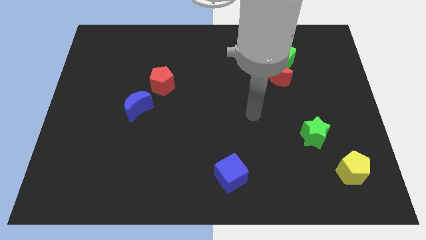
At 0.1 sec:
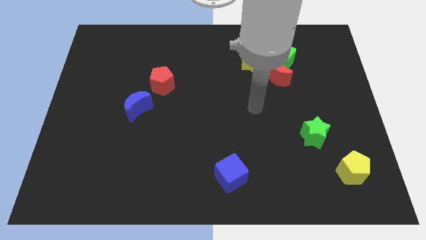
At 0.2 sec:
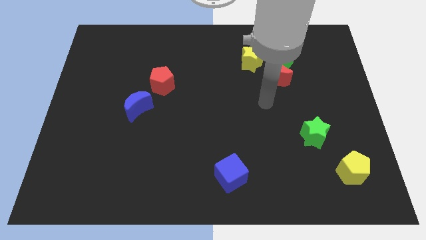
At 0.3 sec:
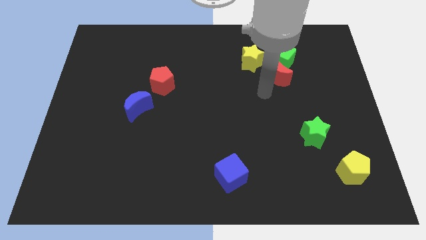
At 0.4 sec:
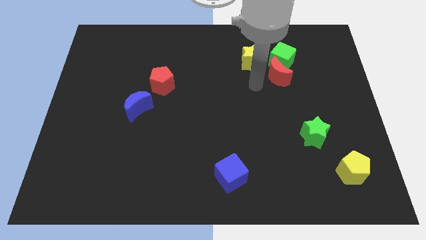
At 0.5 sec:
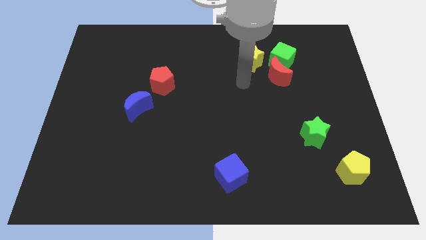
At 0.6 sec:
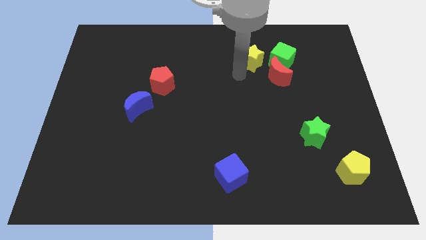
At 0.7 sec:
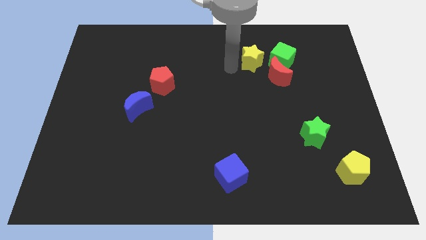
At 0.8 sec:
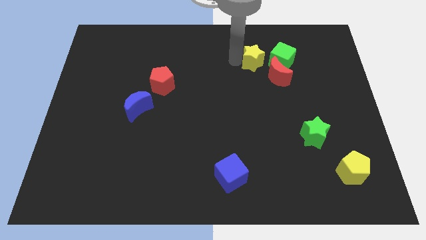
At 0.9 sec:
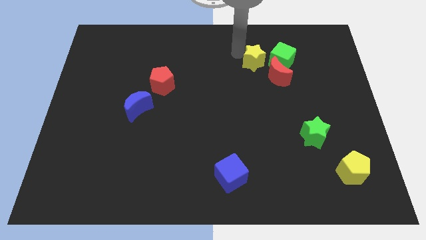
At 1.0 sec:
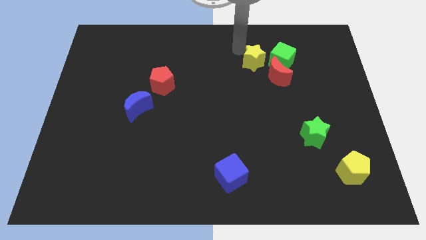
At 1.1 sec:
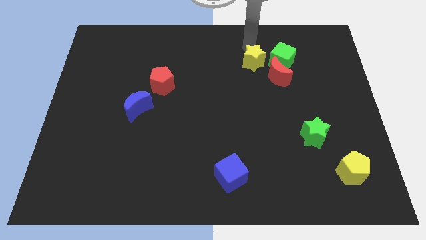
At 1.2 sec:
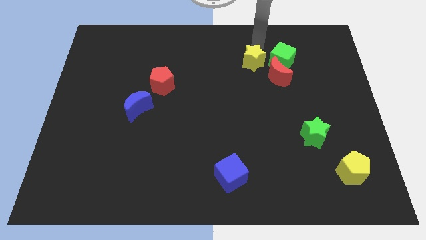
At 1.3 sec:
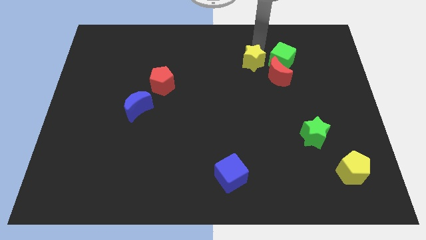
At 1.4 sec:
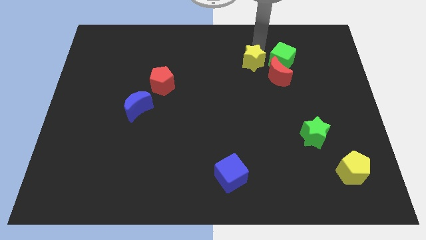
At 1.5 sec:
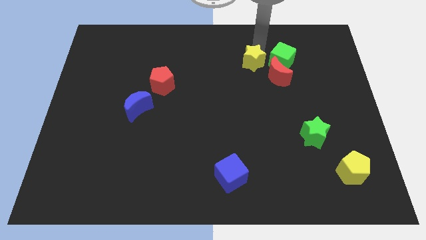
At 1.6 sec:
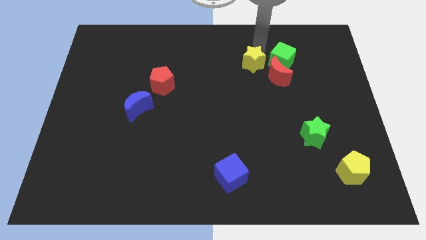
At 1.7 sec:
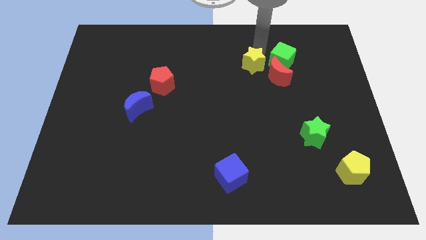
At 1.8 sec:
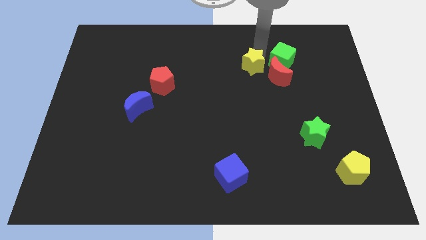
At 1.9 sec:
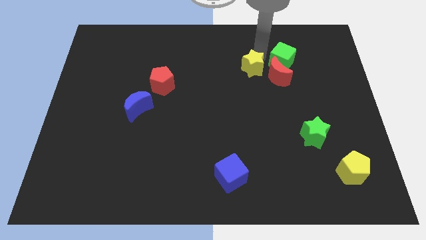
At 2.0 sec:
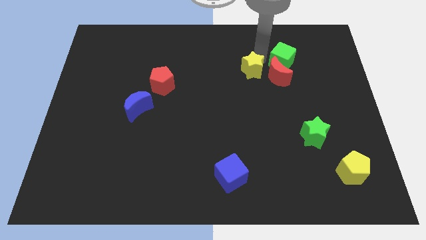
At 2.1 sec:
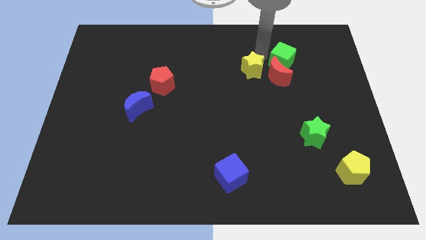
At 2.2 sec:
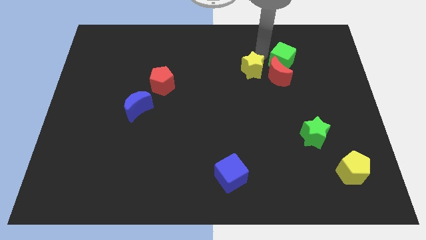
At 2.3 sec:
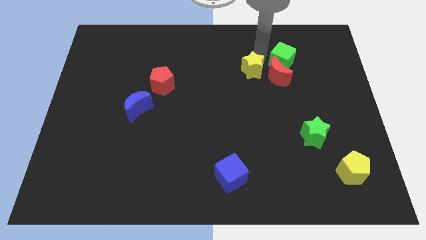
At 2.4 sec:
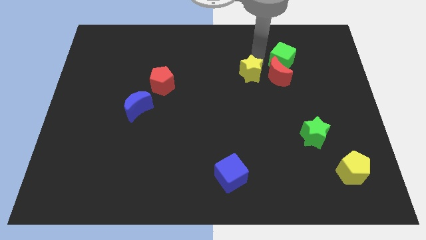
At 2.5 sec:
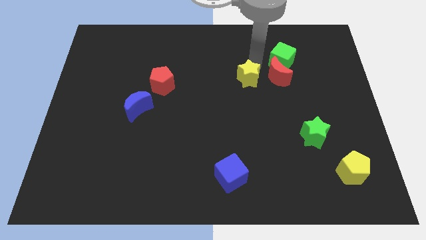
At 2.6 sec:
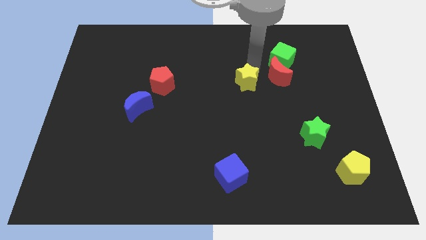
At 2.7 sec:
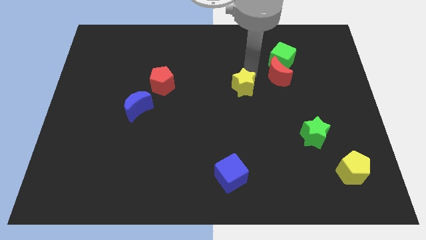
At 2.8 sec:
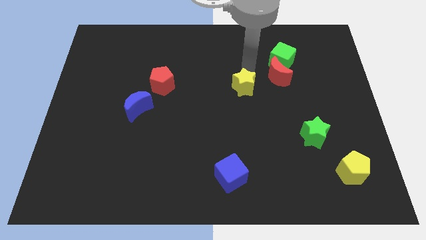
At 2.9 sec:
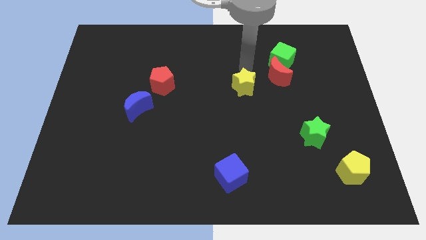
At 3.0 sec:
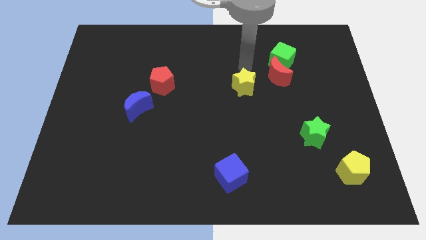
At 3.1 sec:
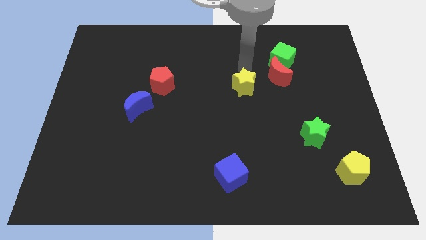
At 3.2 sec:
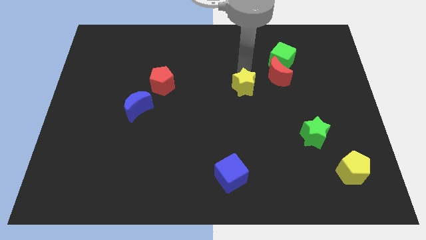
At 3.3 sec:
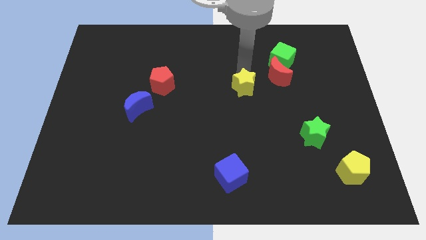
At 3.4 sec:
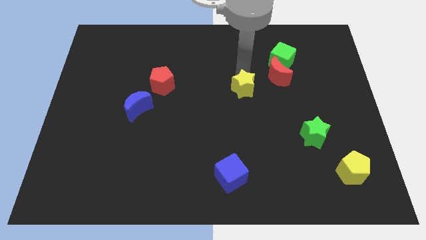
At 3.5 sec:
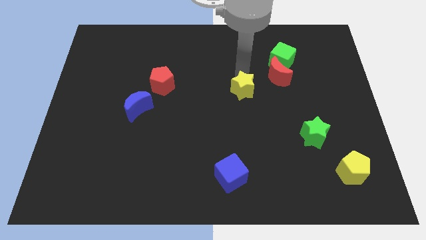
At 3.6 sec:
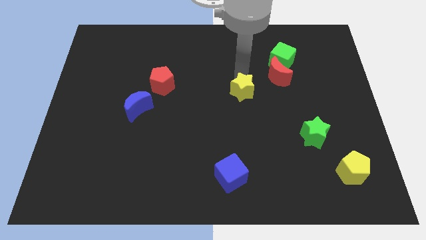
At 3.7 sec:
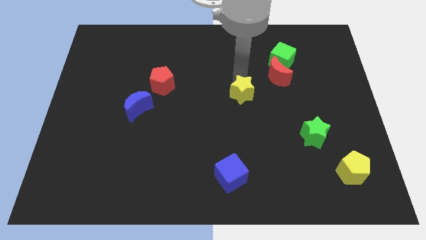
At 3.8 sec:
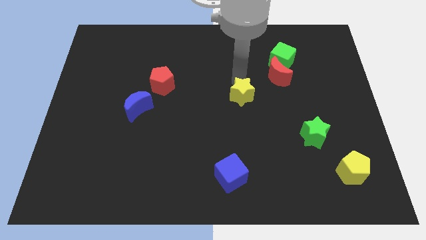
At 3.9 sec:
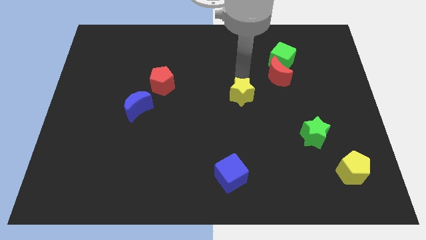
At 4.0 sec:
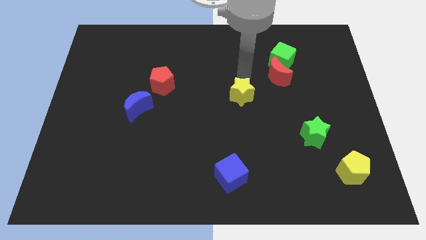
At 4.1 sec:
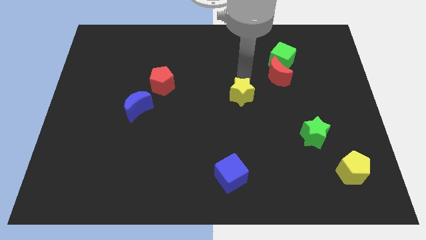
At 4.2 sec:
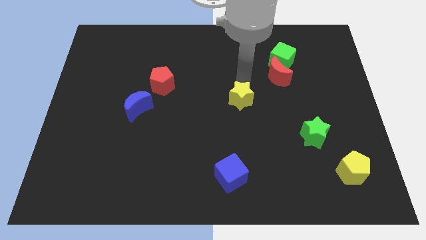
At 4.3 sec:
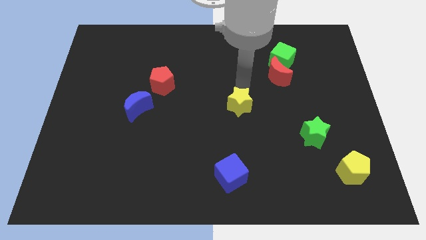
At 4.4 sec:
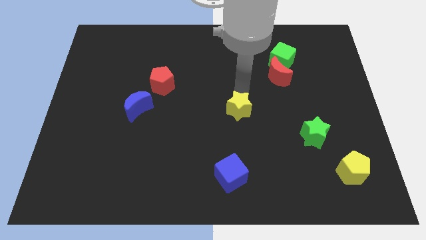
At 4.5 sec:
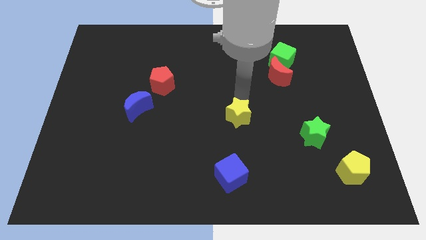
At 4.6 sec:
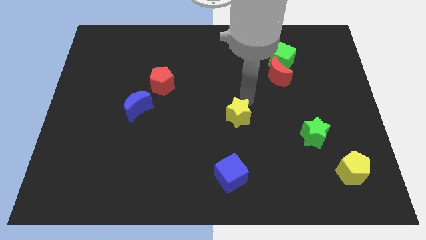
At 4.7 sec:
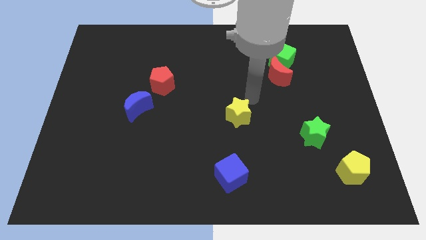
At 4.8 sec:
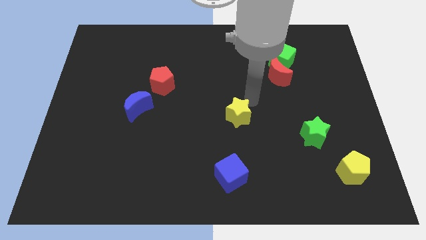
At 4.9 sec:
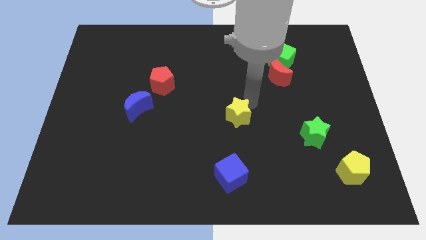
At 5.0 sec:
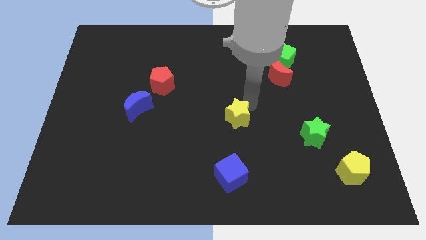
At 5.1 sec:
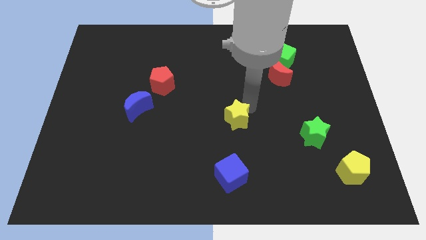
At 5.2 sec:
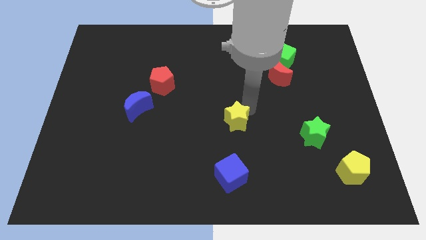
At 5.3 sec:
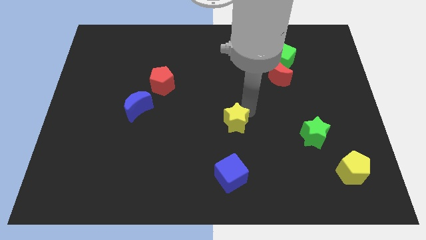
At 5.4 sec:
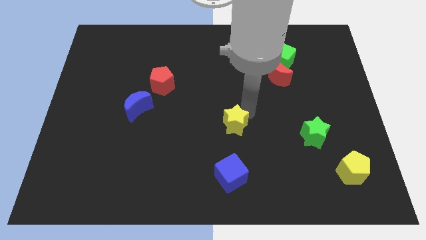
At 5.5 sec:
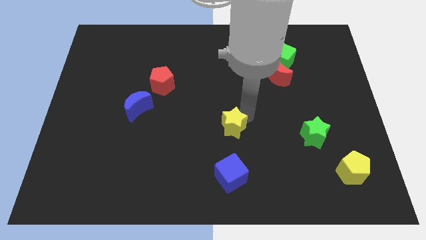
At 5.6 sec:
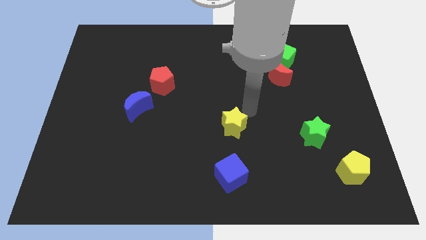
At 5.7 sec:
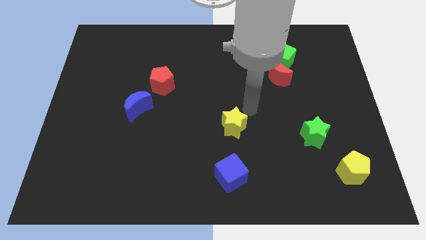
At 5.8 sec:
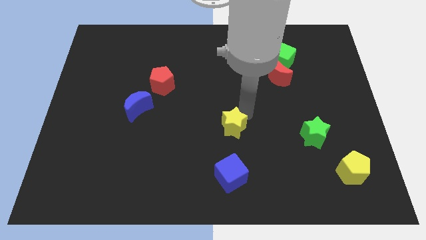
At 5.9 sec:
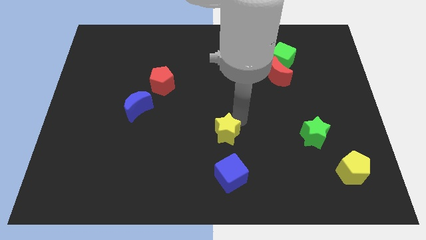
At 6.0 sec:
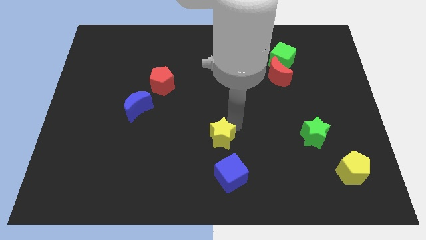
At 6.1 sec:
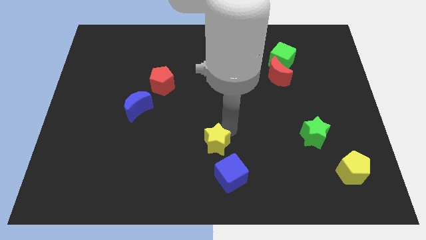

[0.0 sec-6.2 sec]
put the yellow star diagonally up and to the left of the blue cube

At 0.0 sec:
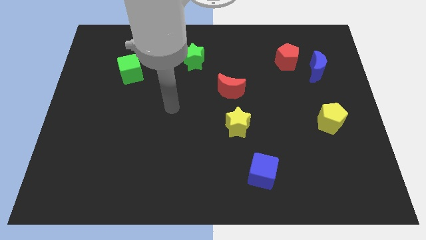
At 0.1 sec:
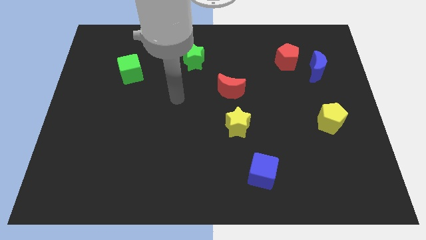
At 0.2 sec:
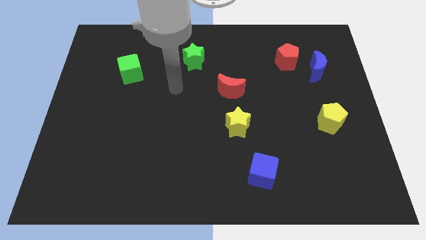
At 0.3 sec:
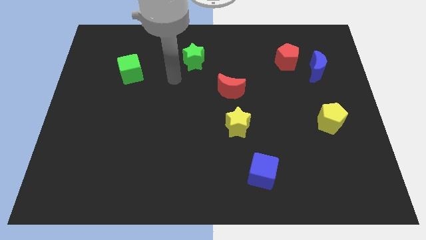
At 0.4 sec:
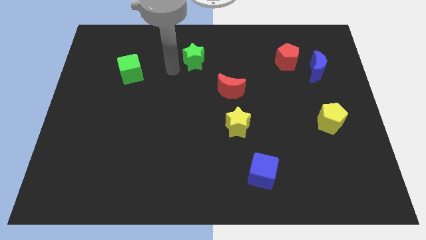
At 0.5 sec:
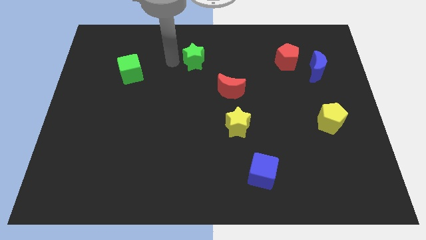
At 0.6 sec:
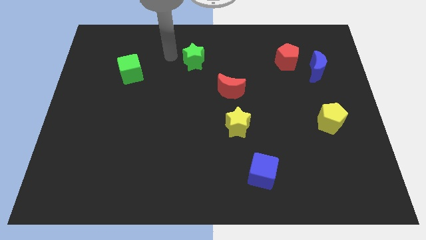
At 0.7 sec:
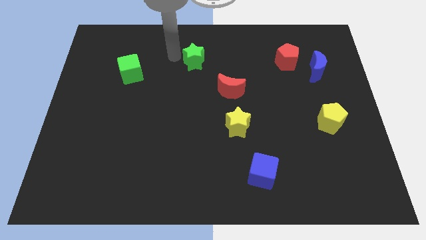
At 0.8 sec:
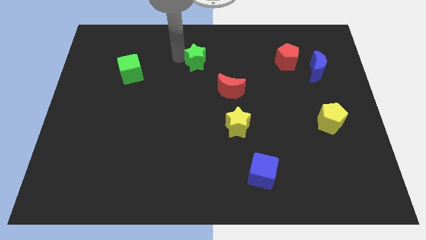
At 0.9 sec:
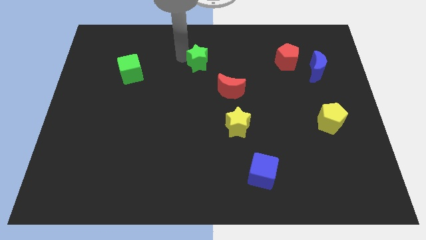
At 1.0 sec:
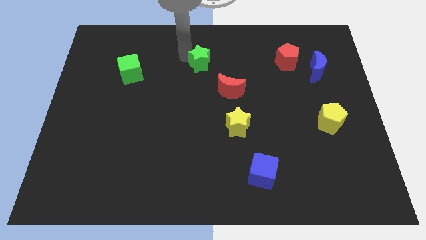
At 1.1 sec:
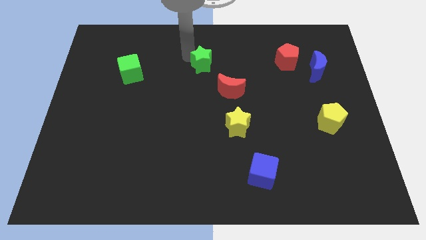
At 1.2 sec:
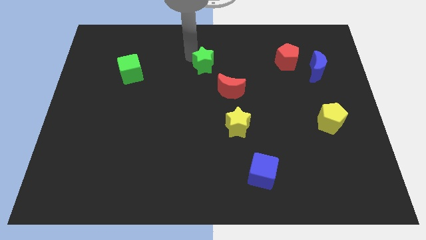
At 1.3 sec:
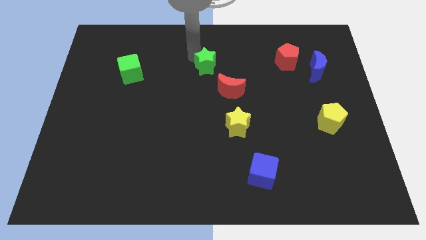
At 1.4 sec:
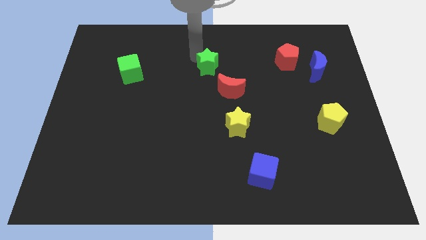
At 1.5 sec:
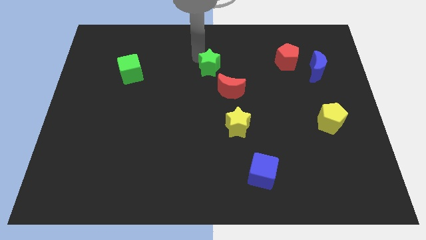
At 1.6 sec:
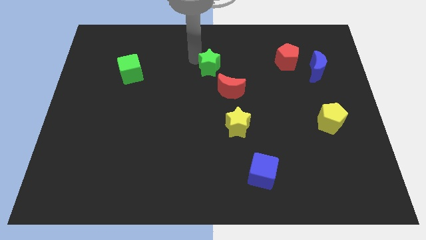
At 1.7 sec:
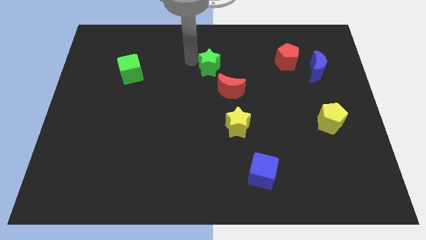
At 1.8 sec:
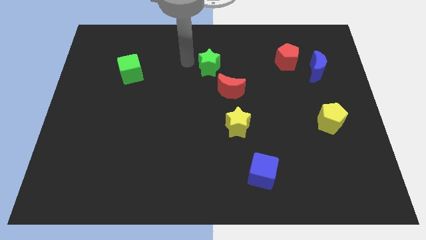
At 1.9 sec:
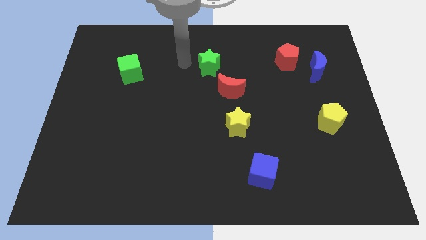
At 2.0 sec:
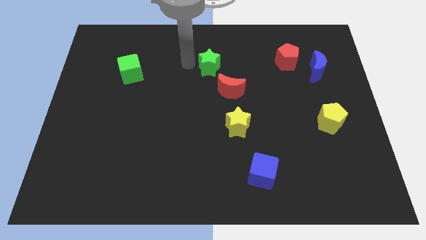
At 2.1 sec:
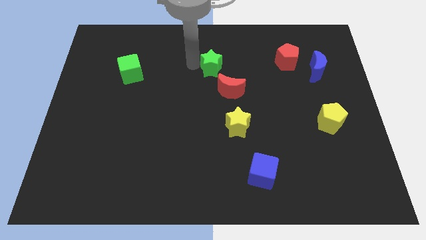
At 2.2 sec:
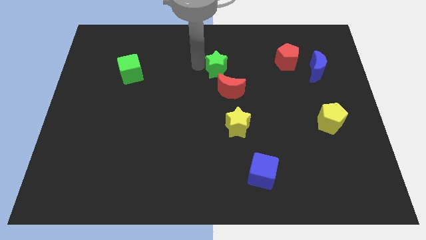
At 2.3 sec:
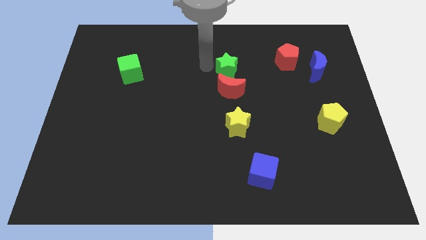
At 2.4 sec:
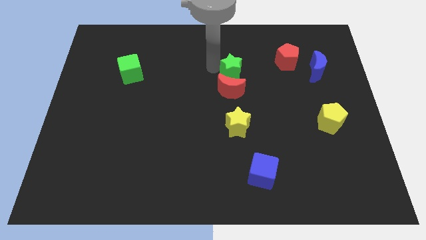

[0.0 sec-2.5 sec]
push the green star to the top right of the red moon
